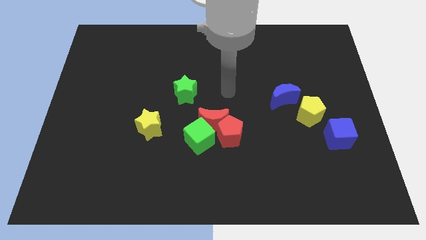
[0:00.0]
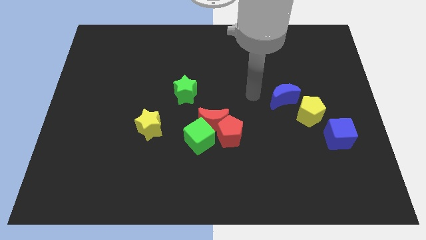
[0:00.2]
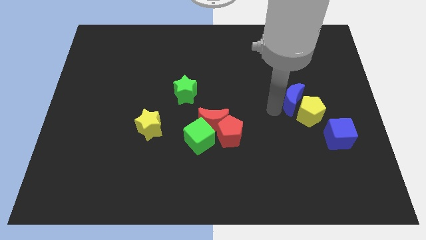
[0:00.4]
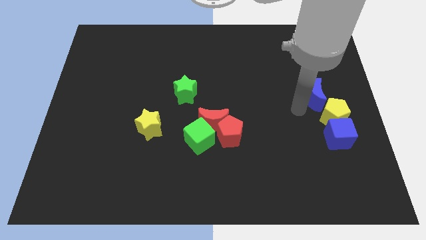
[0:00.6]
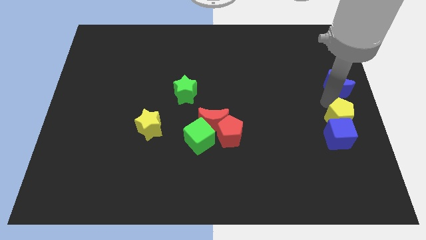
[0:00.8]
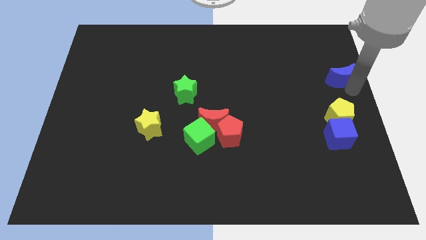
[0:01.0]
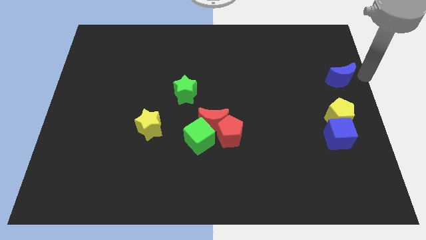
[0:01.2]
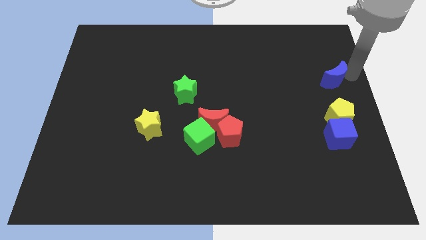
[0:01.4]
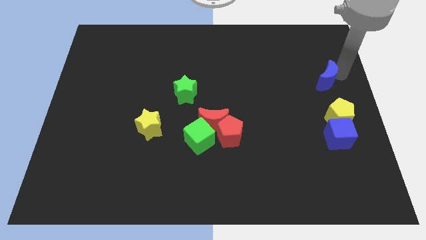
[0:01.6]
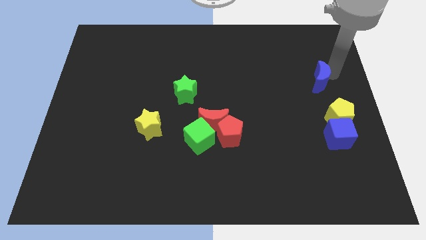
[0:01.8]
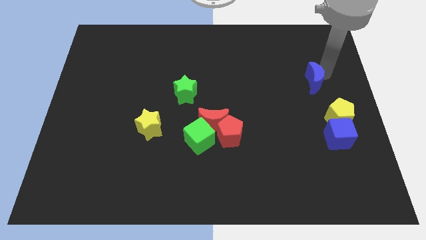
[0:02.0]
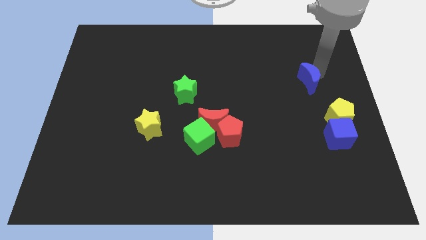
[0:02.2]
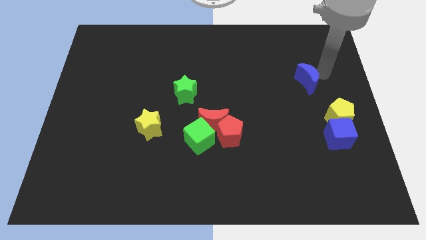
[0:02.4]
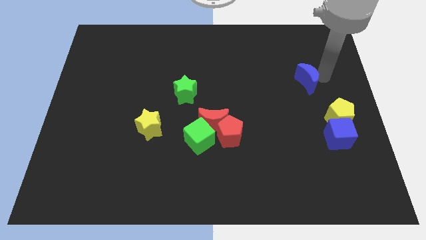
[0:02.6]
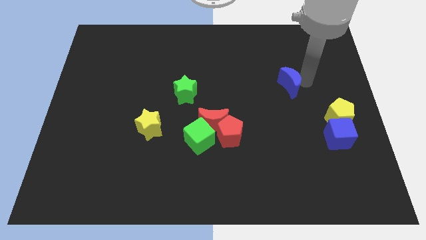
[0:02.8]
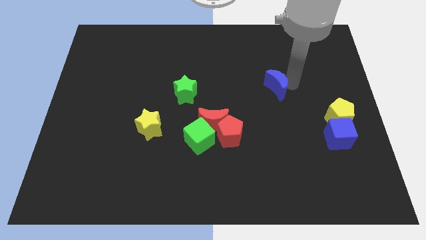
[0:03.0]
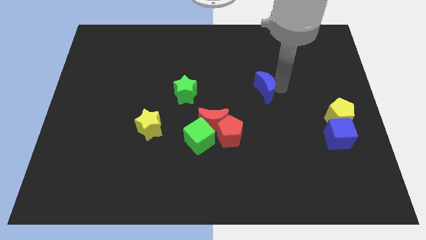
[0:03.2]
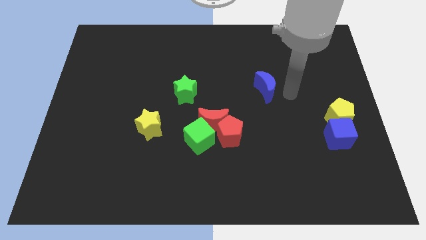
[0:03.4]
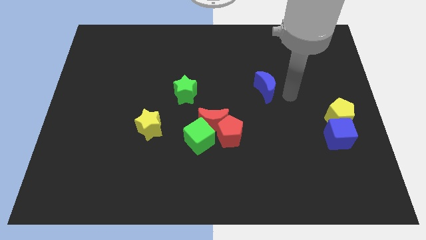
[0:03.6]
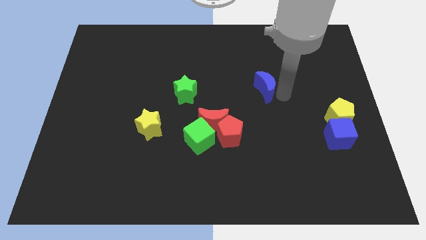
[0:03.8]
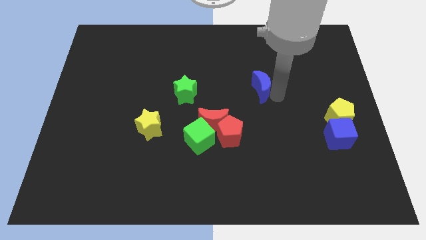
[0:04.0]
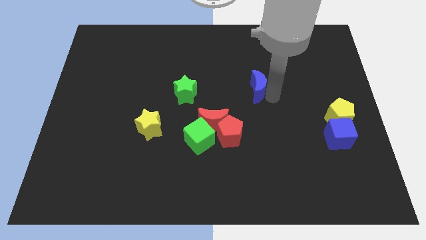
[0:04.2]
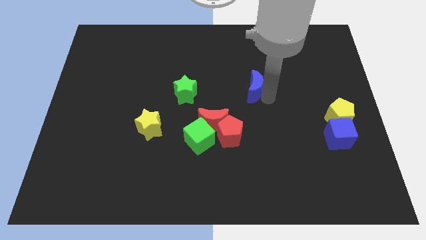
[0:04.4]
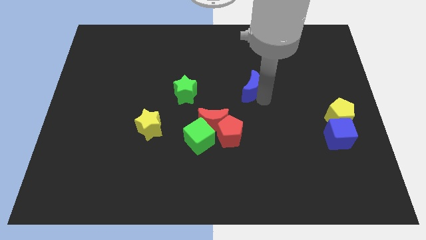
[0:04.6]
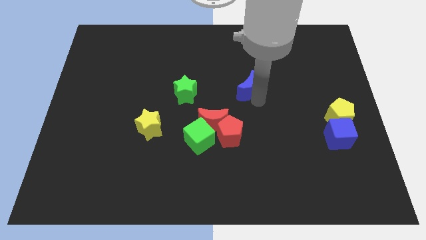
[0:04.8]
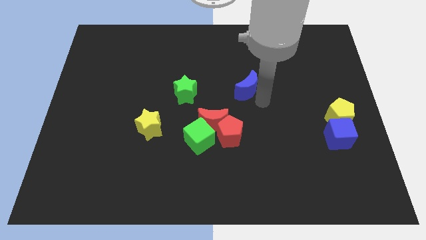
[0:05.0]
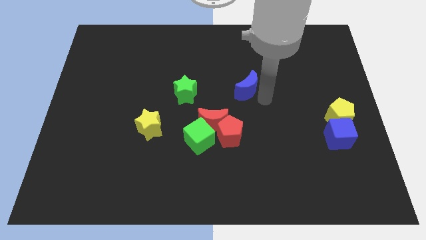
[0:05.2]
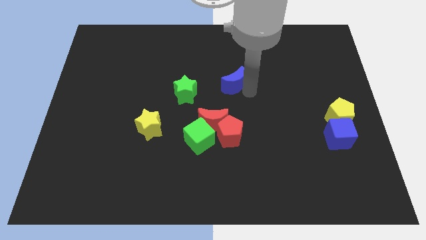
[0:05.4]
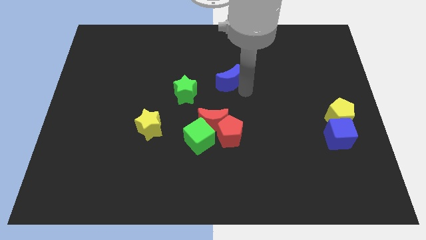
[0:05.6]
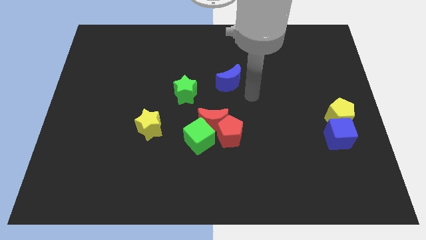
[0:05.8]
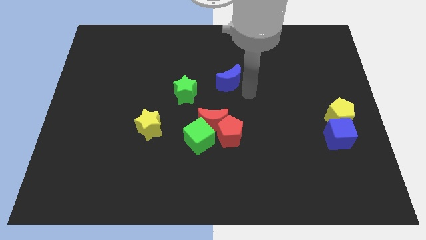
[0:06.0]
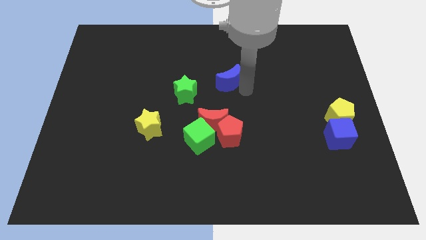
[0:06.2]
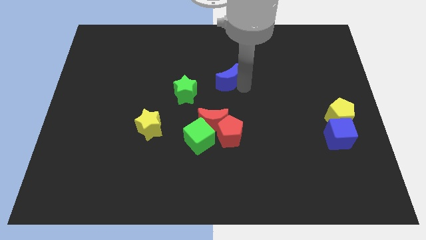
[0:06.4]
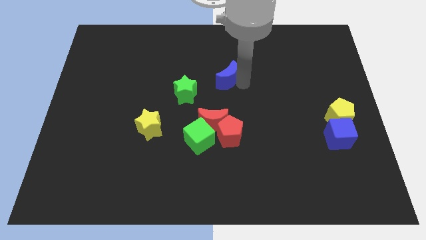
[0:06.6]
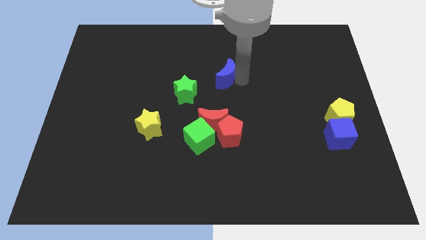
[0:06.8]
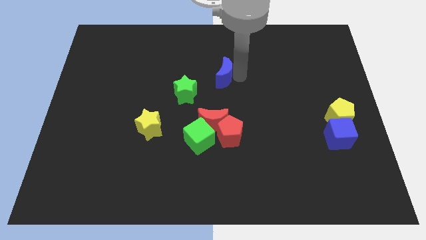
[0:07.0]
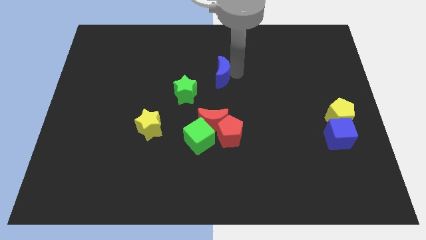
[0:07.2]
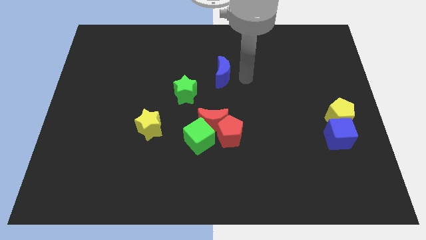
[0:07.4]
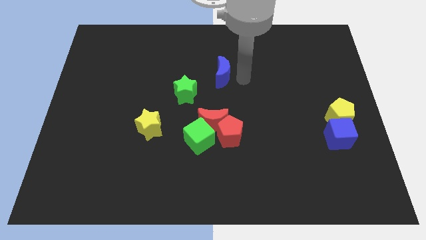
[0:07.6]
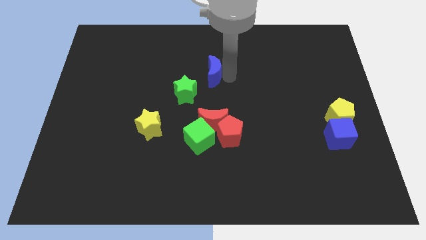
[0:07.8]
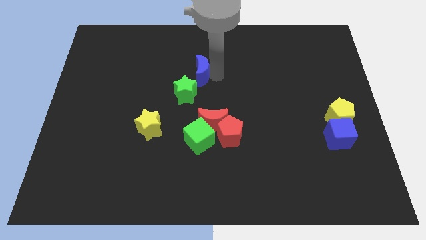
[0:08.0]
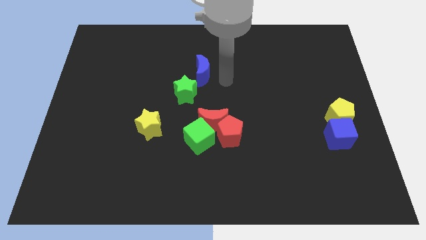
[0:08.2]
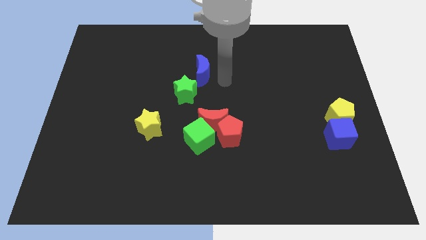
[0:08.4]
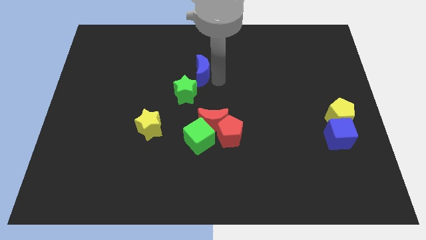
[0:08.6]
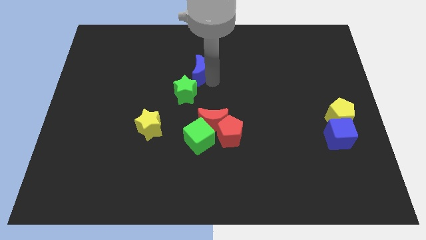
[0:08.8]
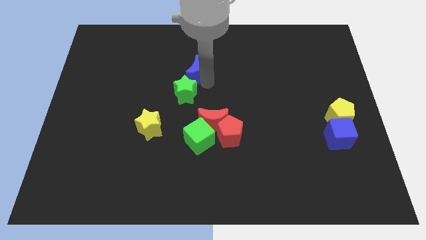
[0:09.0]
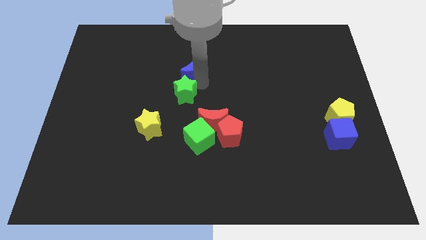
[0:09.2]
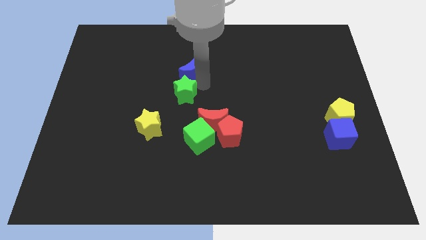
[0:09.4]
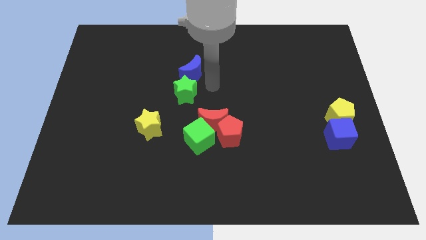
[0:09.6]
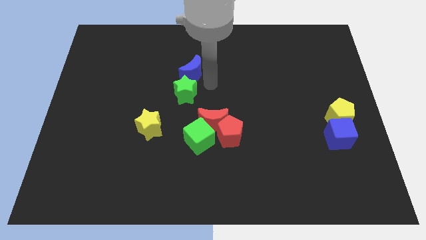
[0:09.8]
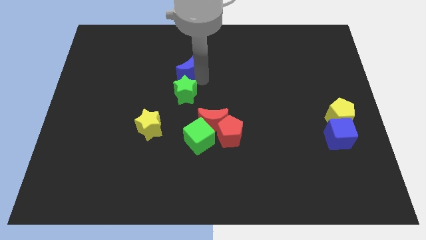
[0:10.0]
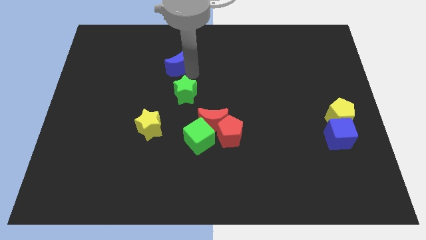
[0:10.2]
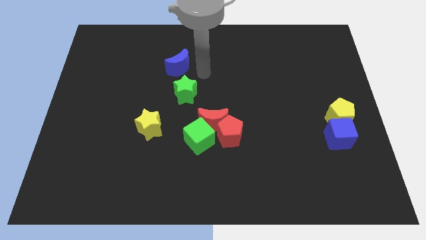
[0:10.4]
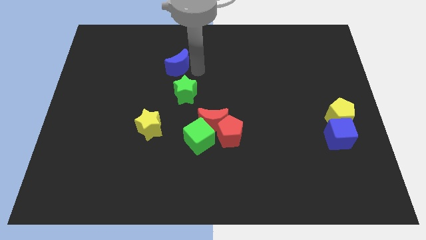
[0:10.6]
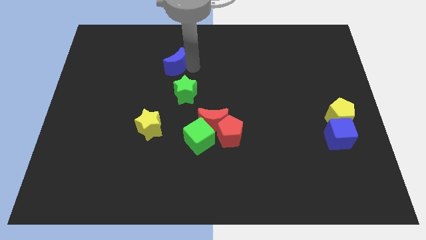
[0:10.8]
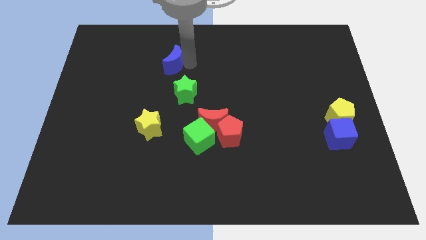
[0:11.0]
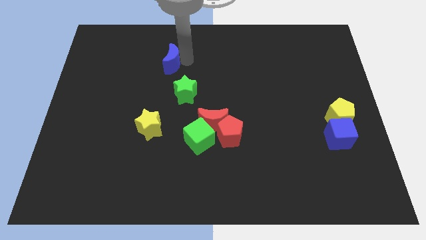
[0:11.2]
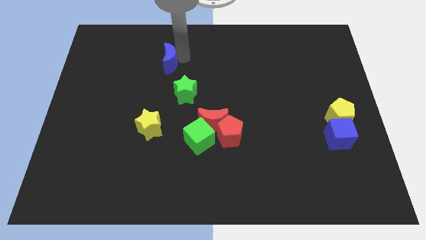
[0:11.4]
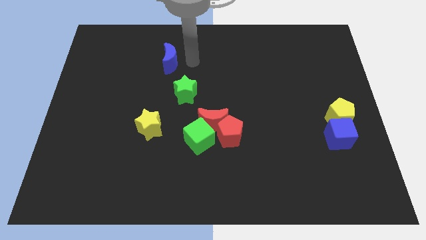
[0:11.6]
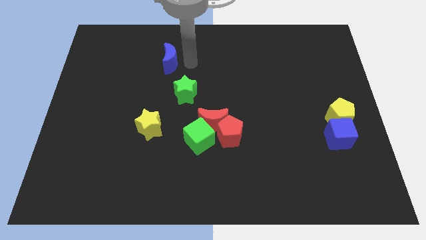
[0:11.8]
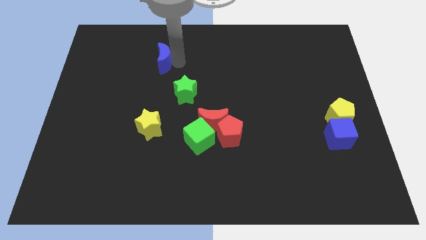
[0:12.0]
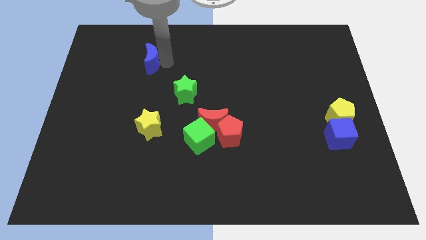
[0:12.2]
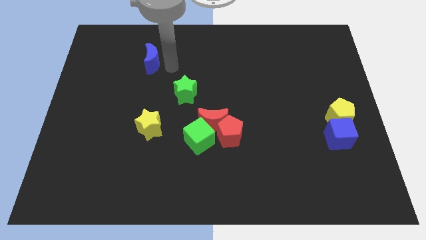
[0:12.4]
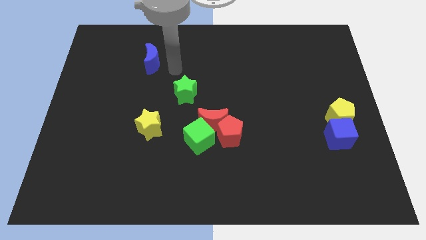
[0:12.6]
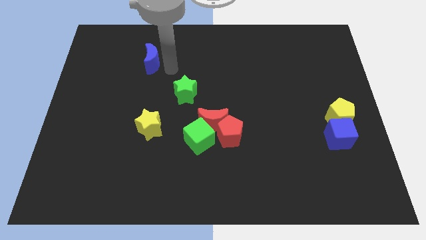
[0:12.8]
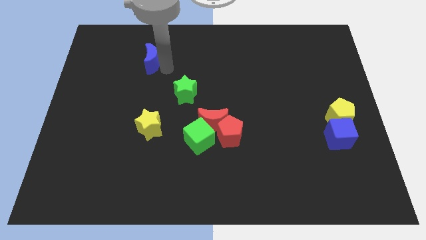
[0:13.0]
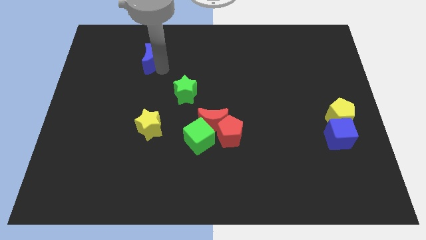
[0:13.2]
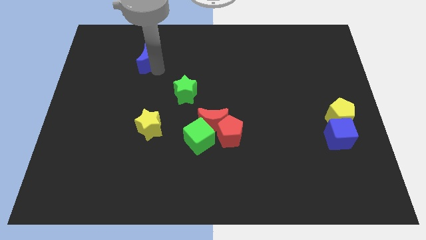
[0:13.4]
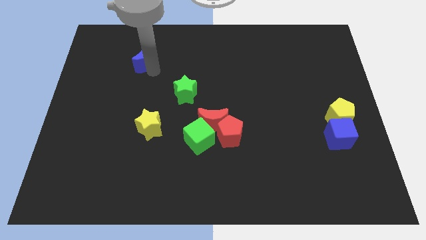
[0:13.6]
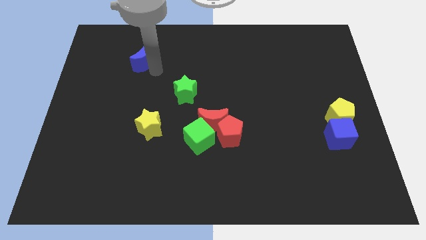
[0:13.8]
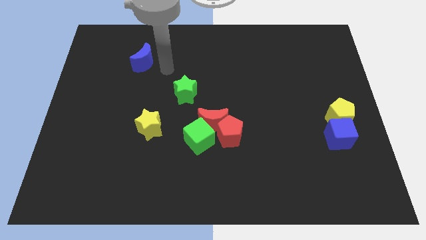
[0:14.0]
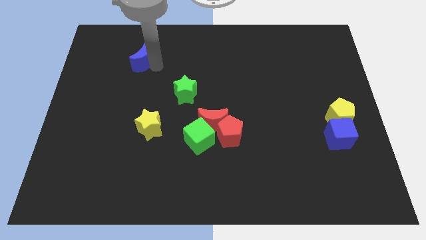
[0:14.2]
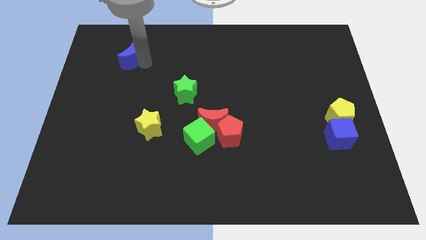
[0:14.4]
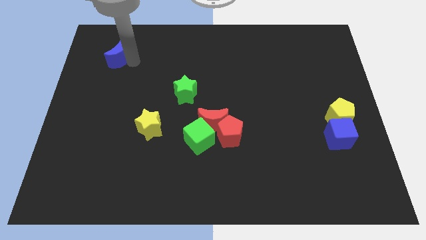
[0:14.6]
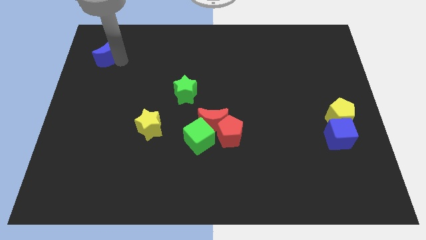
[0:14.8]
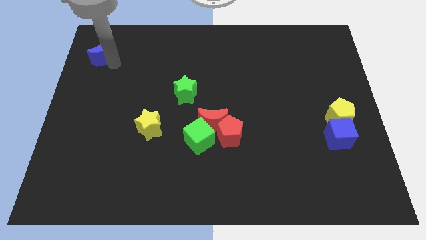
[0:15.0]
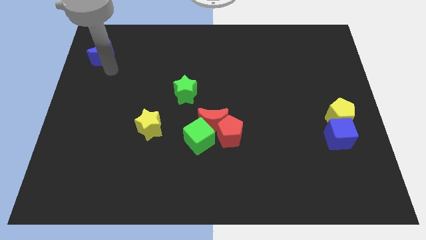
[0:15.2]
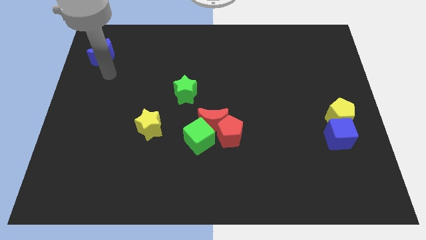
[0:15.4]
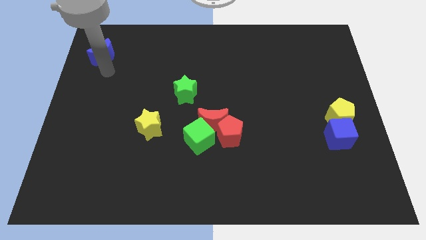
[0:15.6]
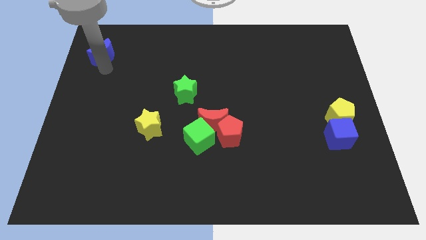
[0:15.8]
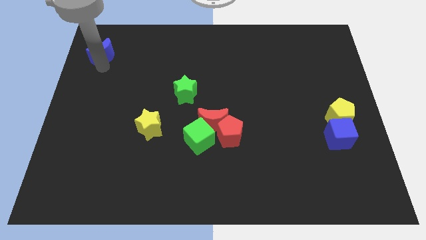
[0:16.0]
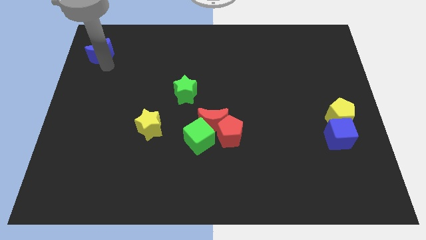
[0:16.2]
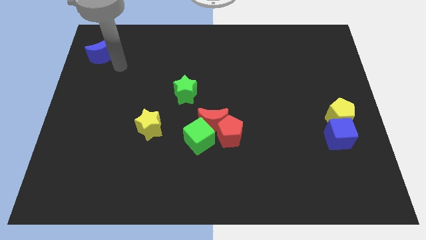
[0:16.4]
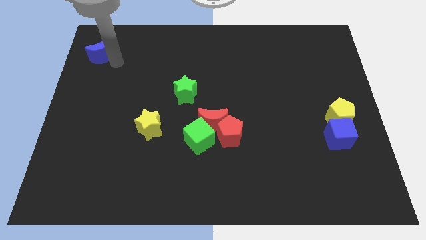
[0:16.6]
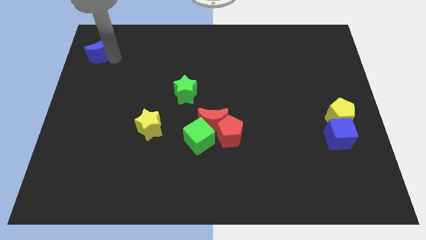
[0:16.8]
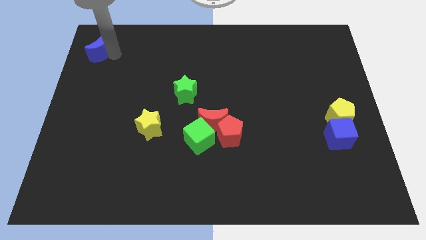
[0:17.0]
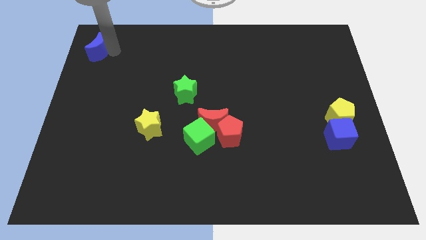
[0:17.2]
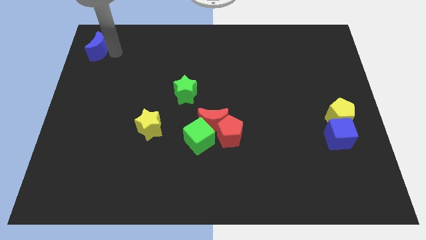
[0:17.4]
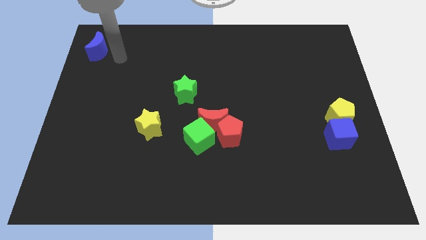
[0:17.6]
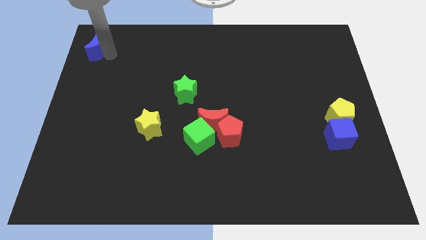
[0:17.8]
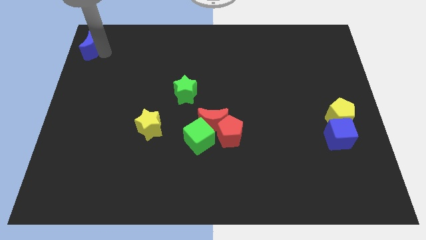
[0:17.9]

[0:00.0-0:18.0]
put the blue moon to the top left

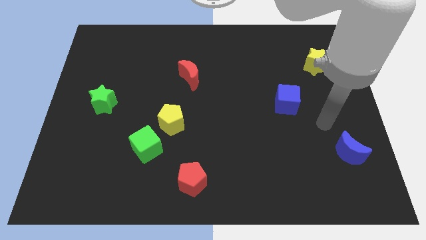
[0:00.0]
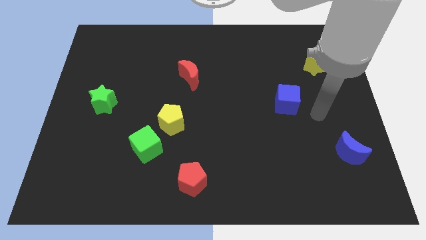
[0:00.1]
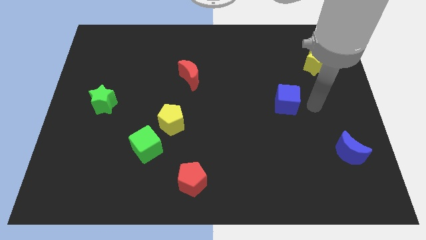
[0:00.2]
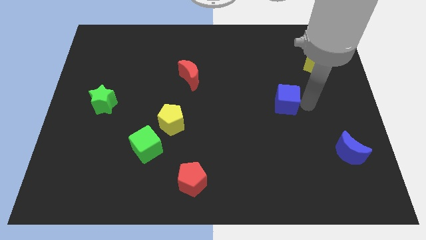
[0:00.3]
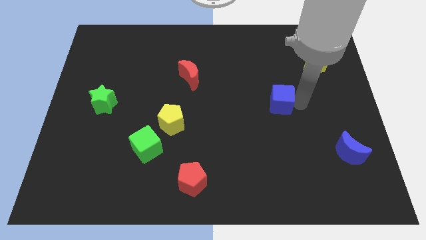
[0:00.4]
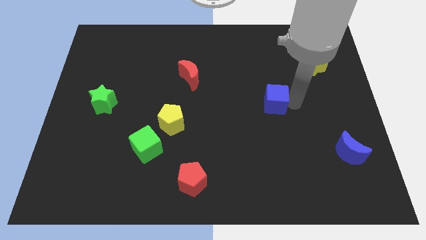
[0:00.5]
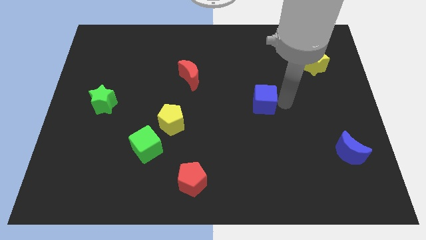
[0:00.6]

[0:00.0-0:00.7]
move the blue cube to the center of the board
